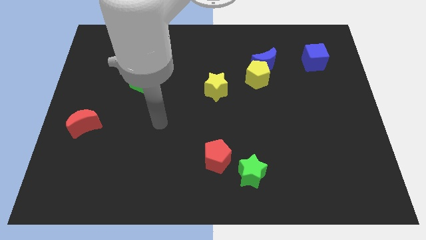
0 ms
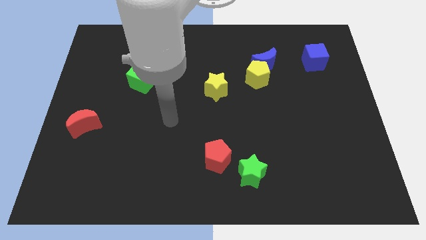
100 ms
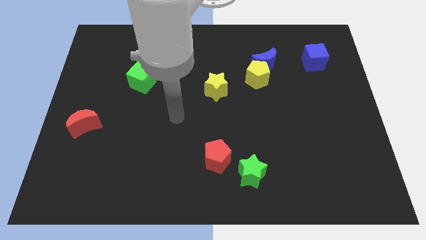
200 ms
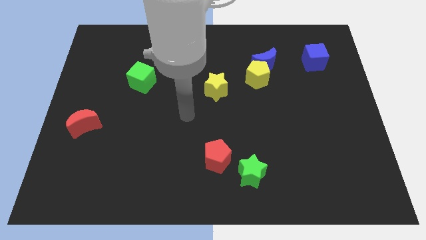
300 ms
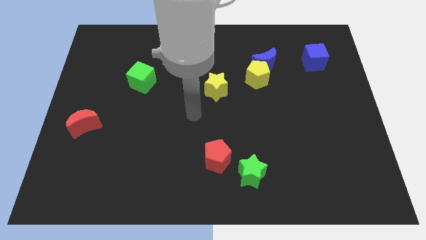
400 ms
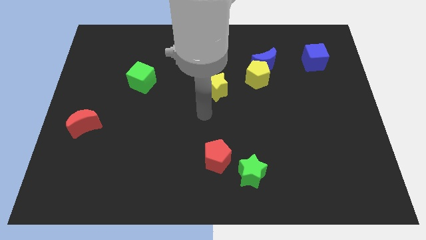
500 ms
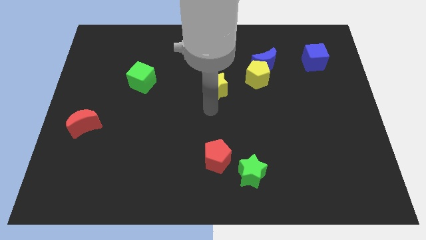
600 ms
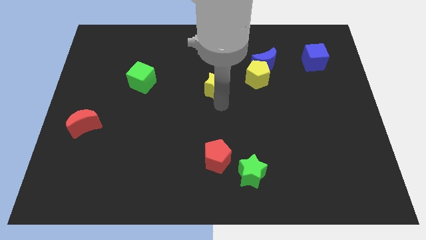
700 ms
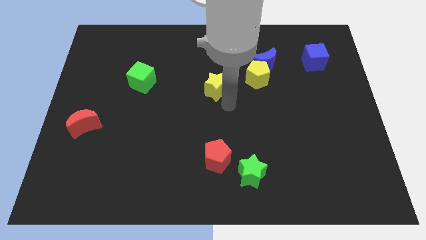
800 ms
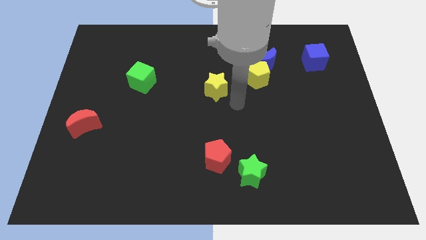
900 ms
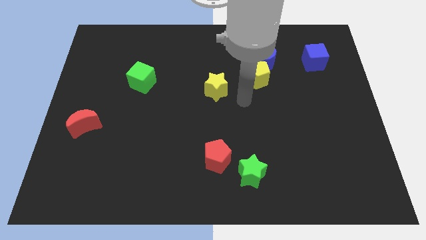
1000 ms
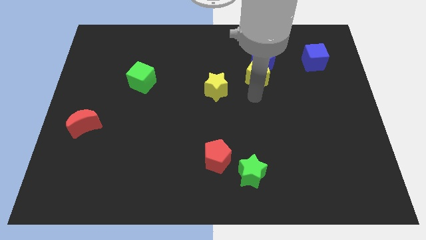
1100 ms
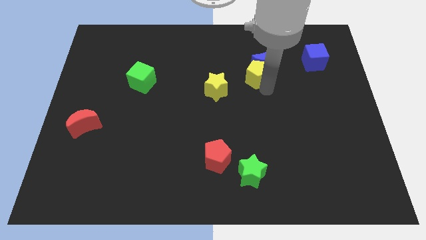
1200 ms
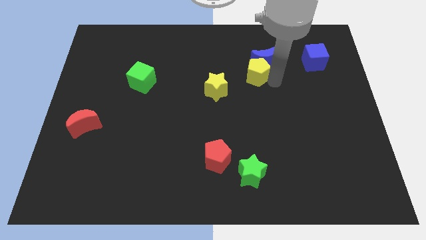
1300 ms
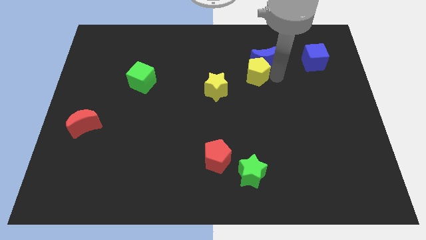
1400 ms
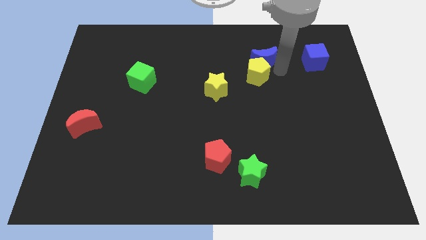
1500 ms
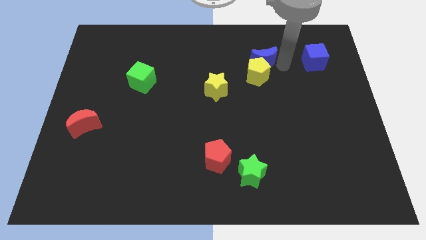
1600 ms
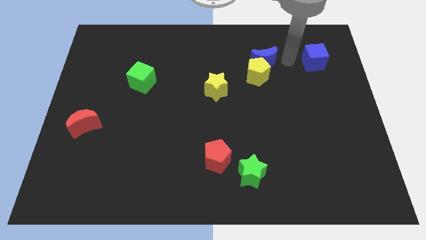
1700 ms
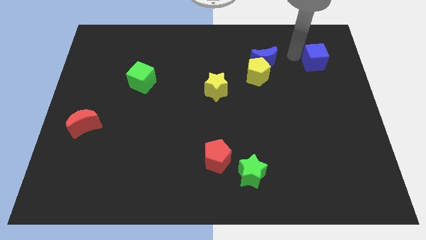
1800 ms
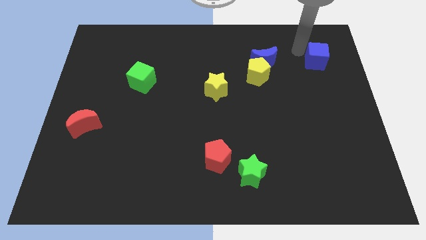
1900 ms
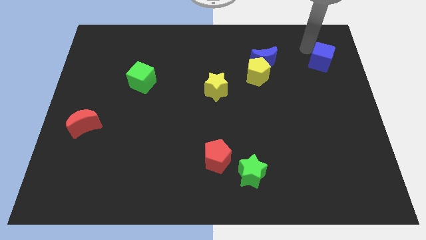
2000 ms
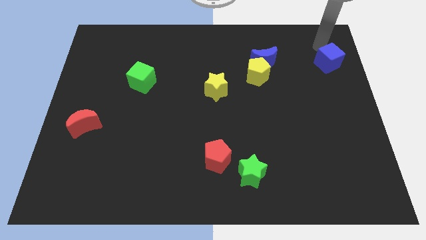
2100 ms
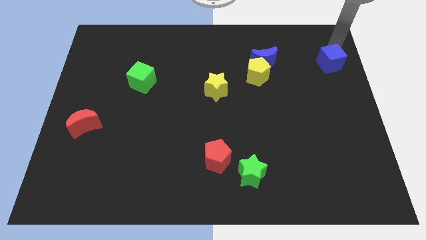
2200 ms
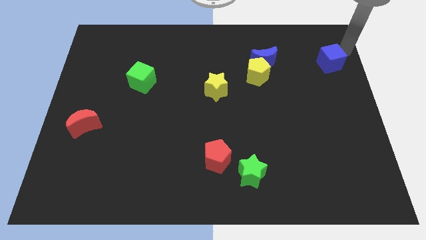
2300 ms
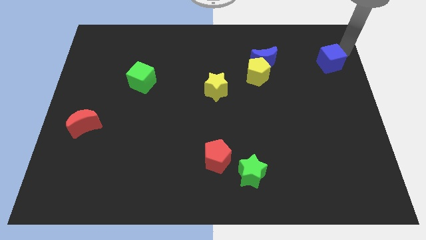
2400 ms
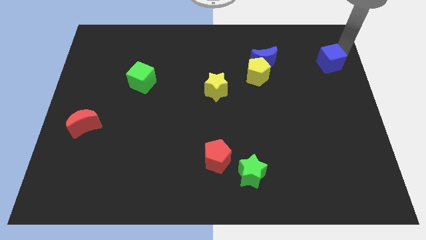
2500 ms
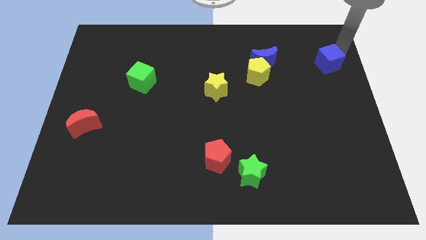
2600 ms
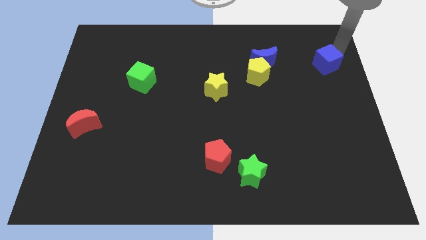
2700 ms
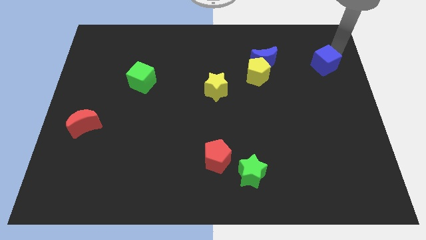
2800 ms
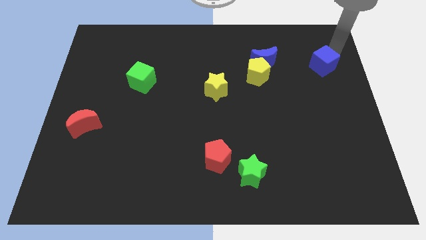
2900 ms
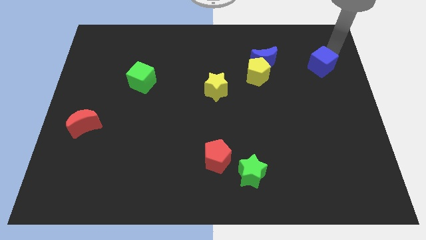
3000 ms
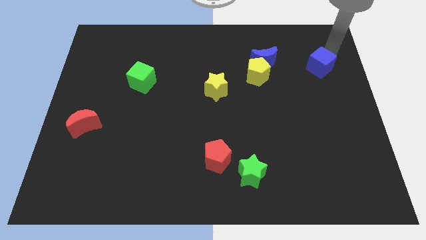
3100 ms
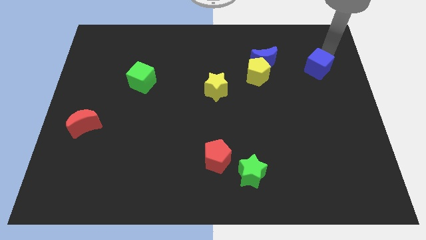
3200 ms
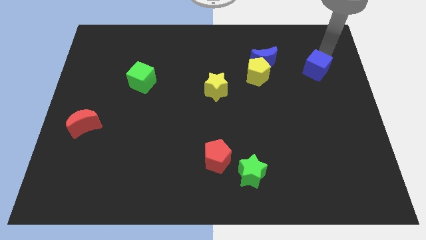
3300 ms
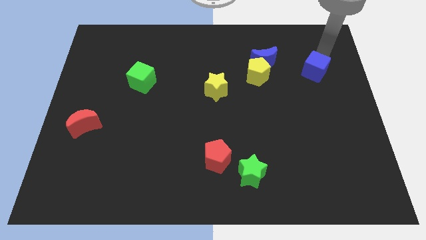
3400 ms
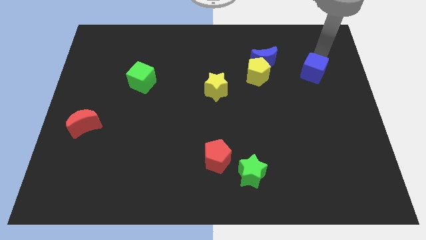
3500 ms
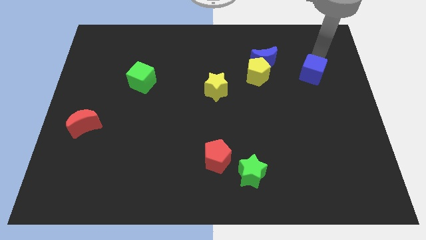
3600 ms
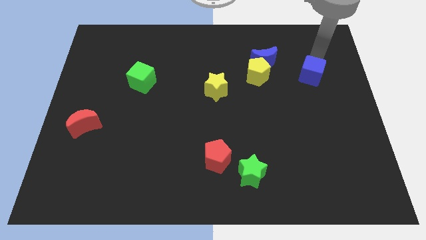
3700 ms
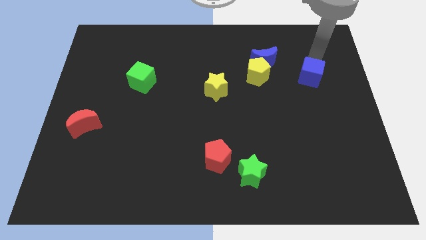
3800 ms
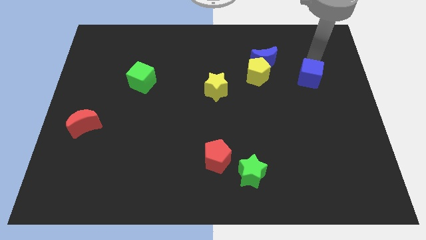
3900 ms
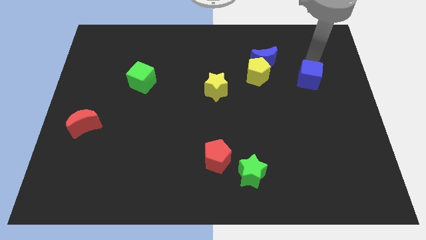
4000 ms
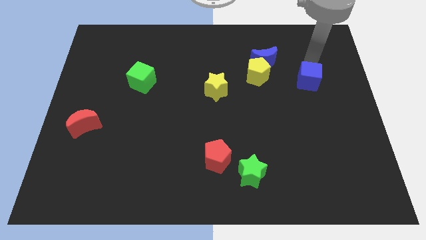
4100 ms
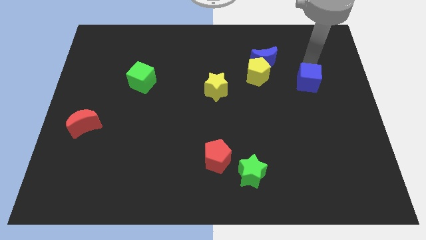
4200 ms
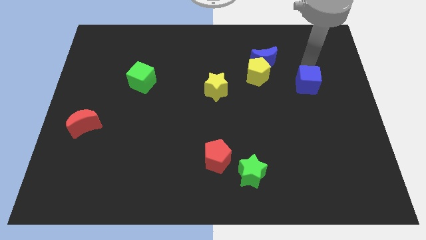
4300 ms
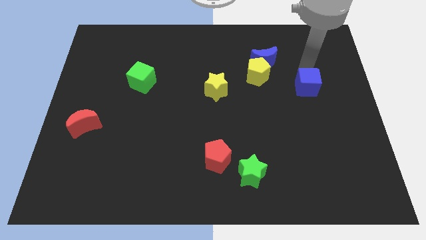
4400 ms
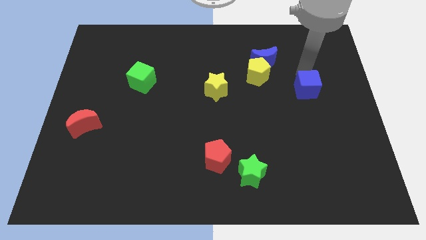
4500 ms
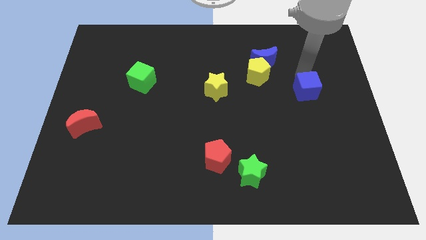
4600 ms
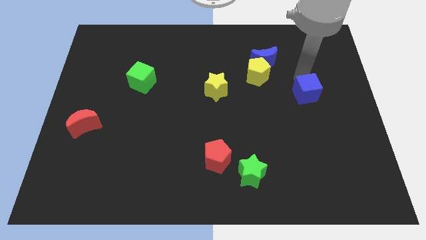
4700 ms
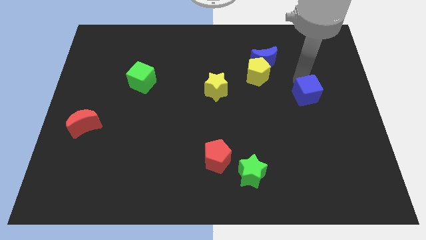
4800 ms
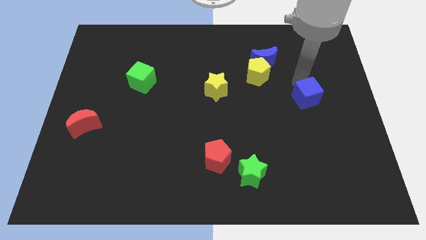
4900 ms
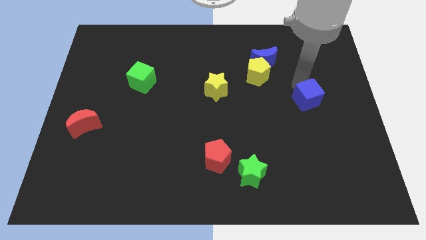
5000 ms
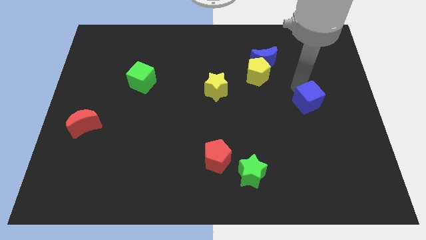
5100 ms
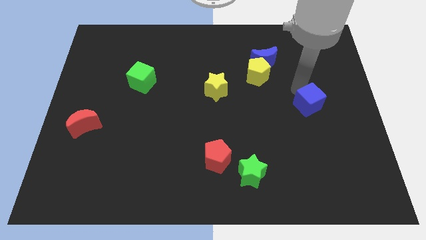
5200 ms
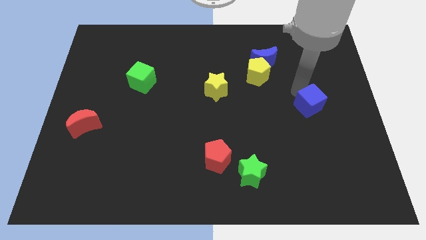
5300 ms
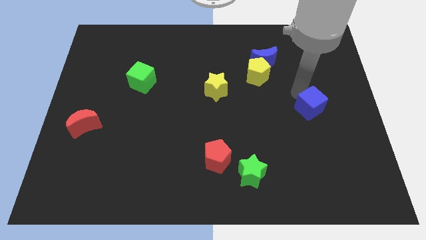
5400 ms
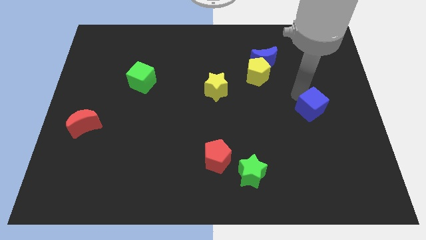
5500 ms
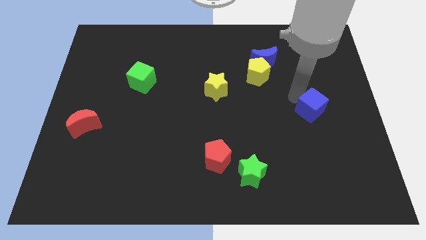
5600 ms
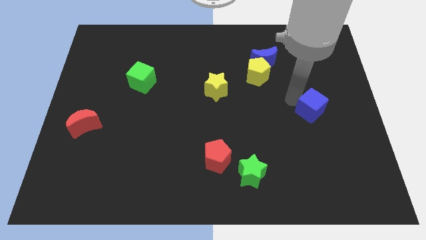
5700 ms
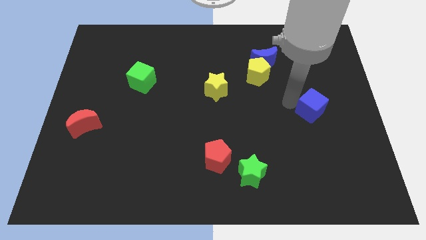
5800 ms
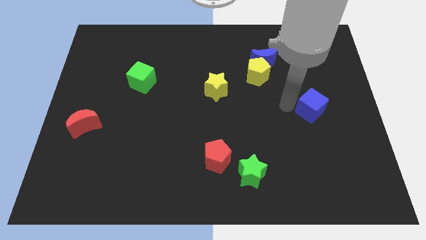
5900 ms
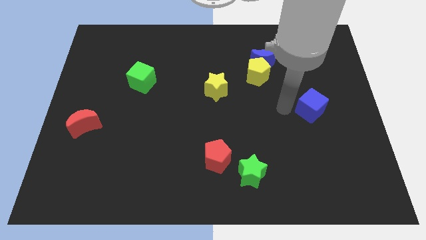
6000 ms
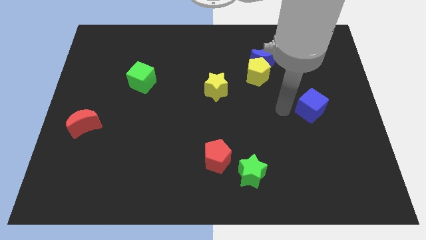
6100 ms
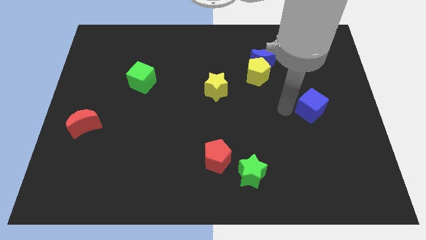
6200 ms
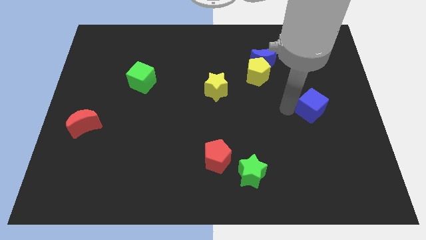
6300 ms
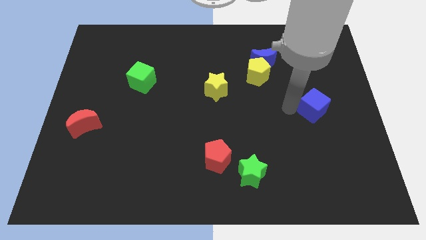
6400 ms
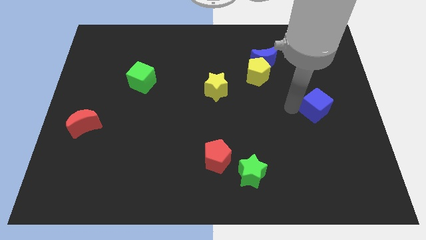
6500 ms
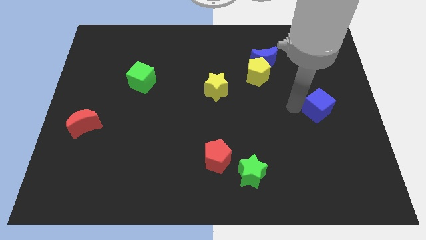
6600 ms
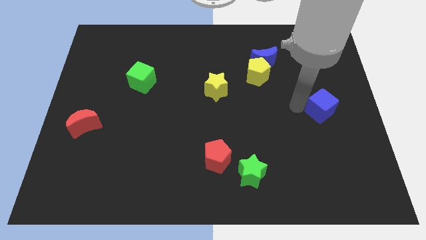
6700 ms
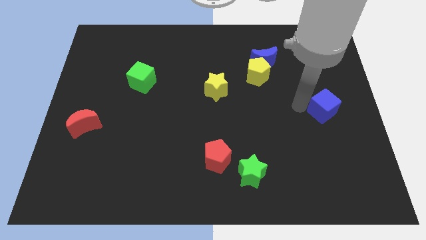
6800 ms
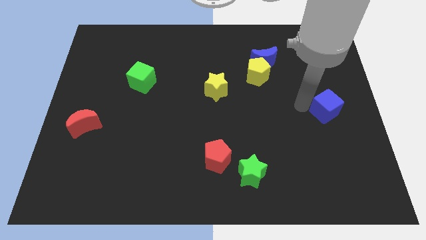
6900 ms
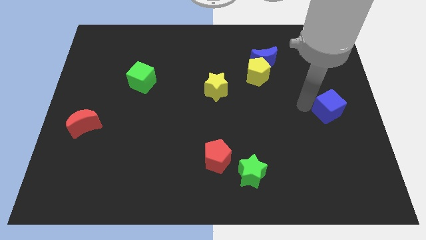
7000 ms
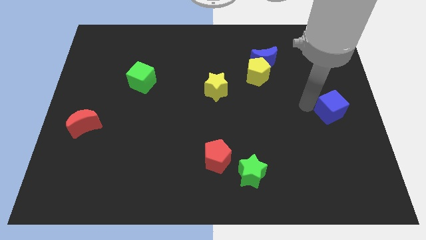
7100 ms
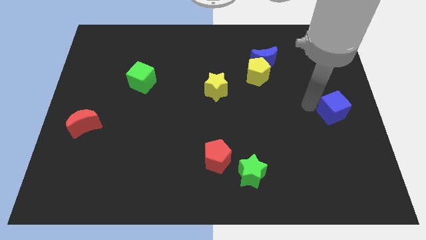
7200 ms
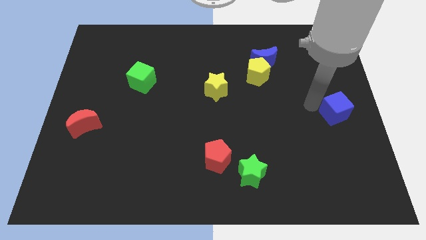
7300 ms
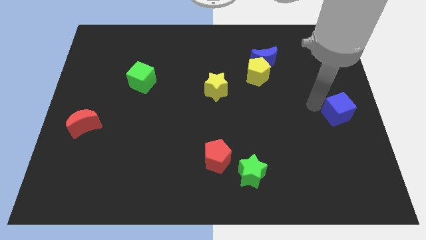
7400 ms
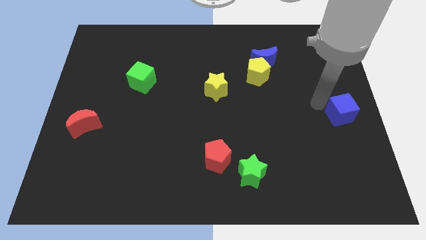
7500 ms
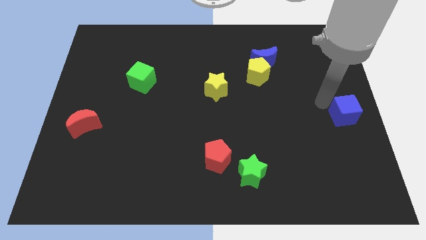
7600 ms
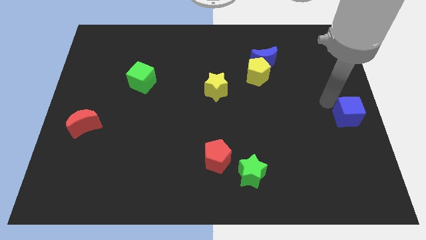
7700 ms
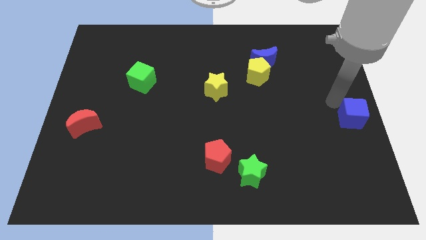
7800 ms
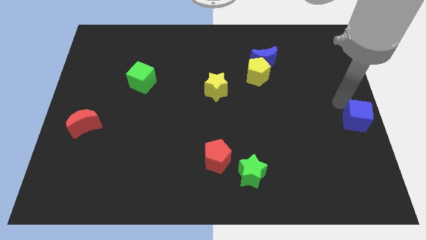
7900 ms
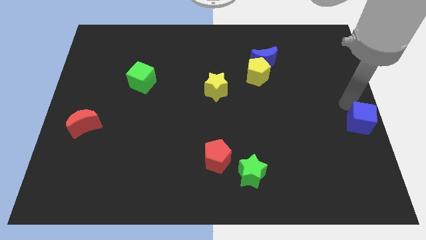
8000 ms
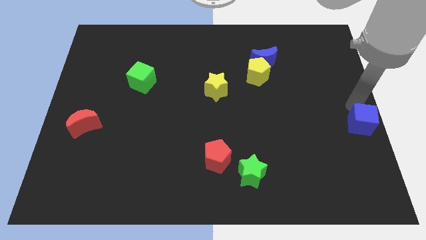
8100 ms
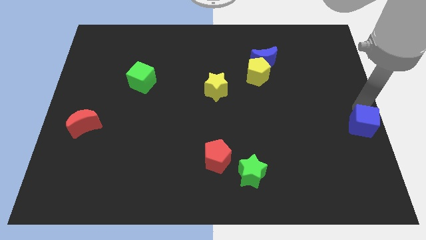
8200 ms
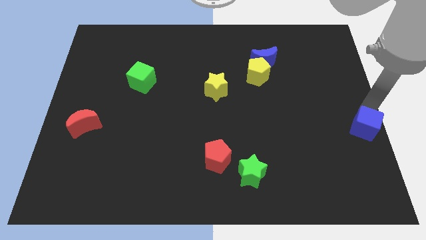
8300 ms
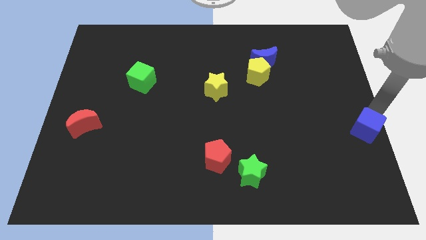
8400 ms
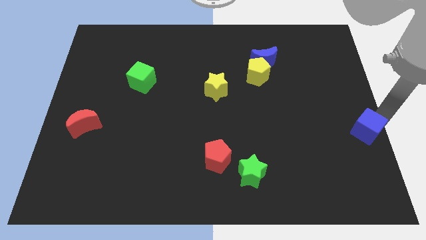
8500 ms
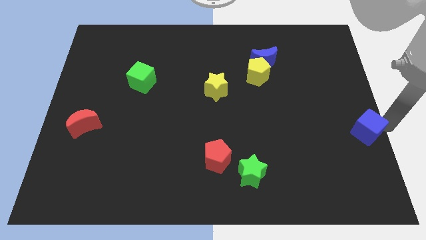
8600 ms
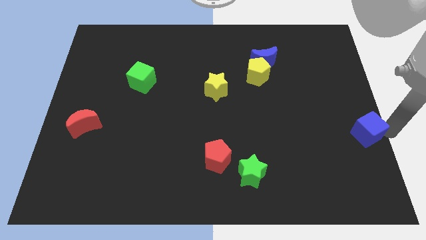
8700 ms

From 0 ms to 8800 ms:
move the blue cube downwards
